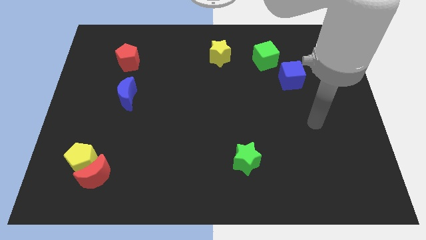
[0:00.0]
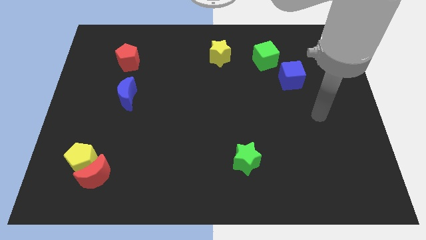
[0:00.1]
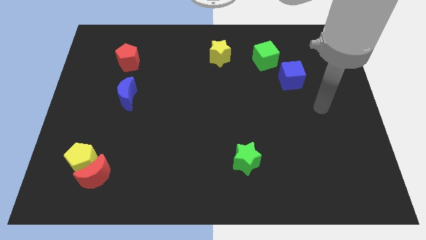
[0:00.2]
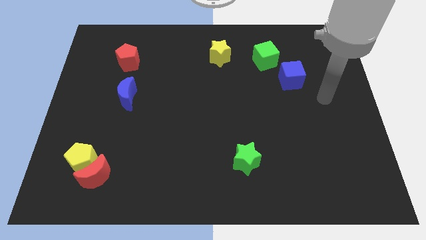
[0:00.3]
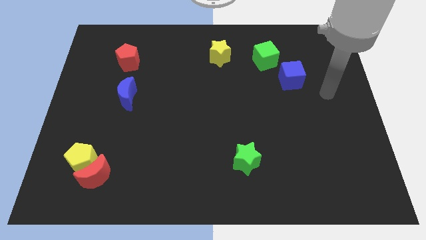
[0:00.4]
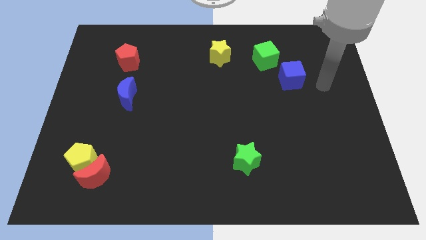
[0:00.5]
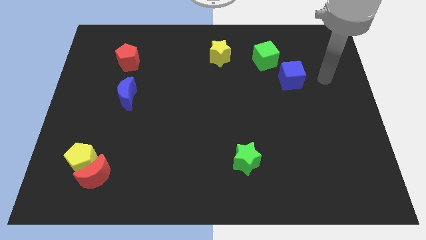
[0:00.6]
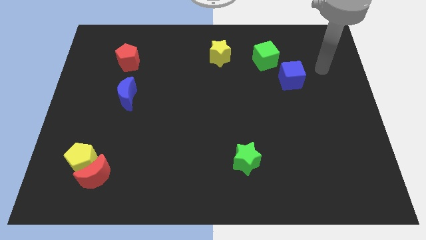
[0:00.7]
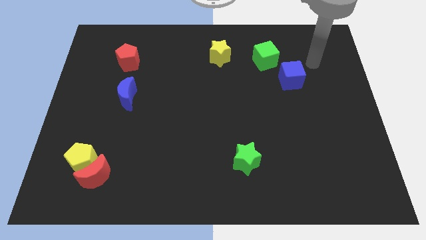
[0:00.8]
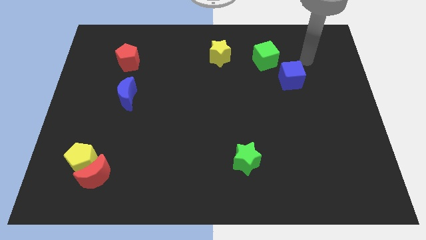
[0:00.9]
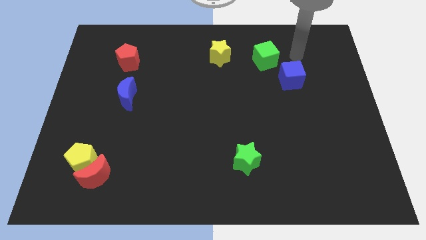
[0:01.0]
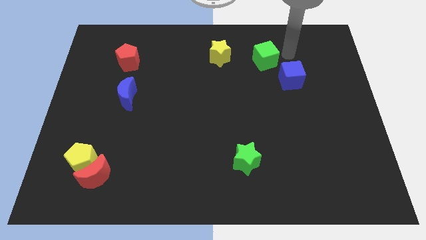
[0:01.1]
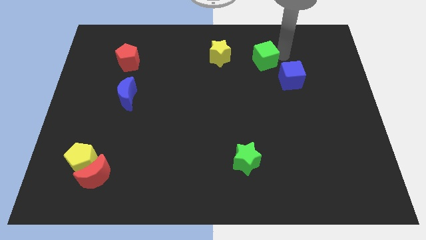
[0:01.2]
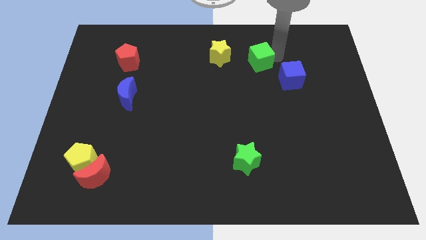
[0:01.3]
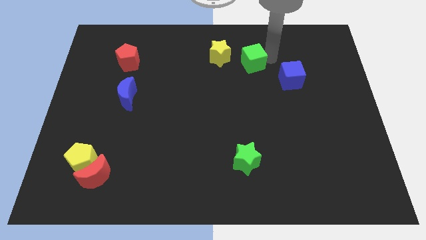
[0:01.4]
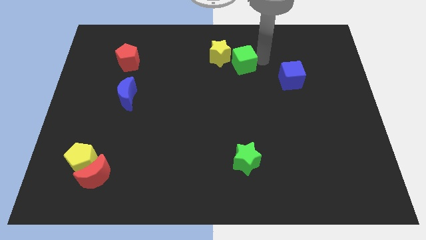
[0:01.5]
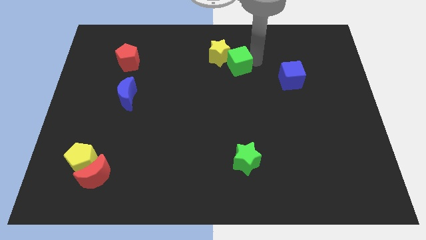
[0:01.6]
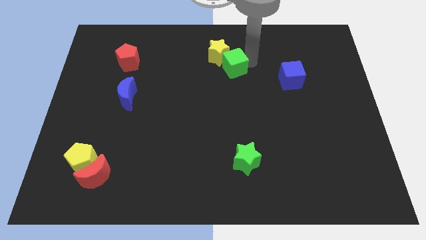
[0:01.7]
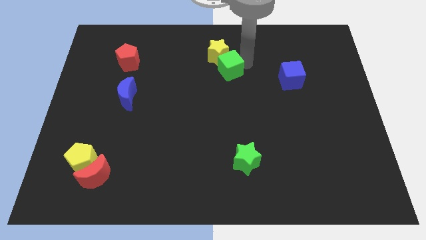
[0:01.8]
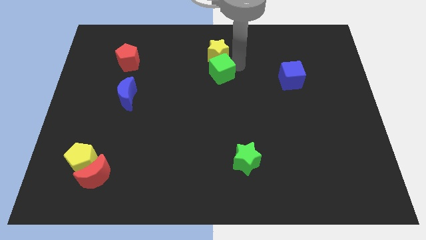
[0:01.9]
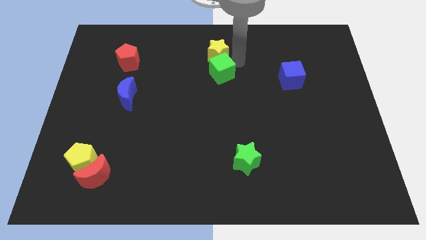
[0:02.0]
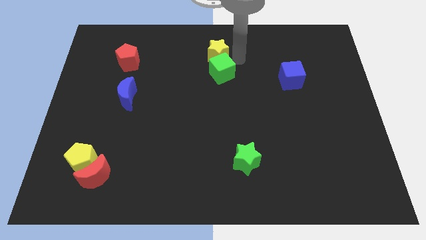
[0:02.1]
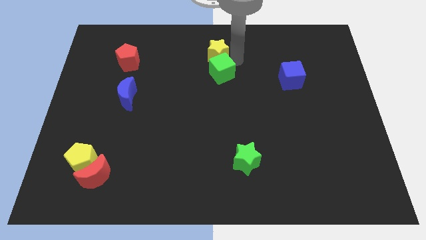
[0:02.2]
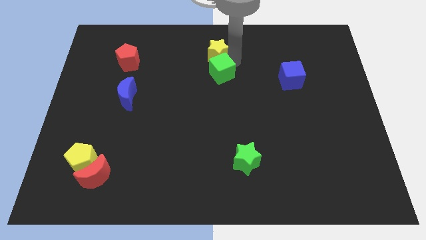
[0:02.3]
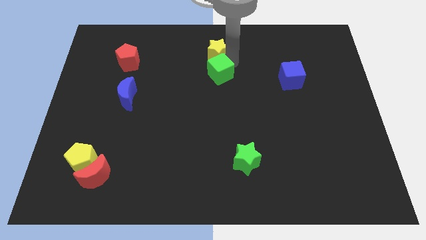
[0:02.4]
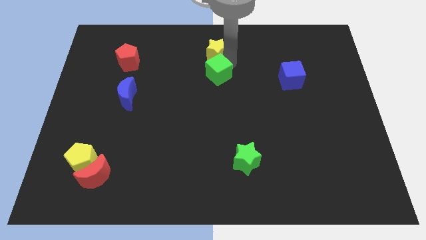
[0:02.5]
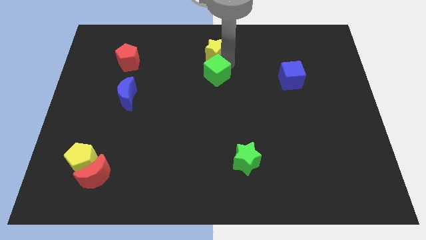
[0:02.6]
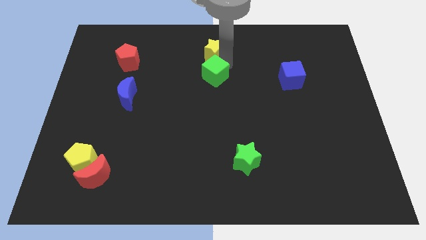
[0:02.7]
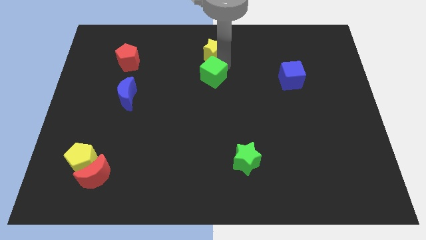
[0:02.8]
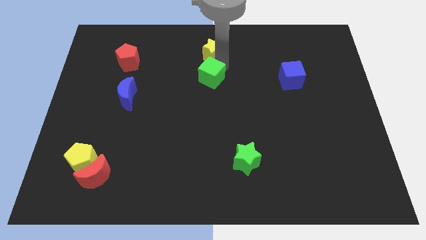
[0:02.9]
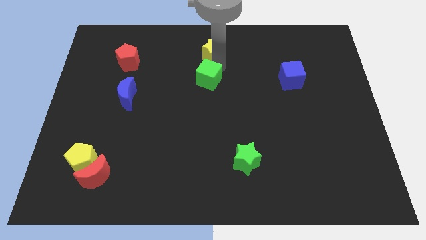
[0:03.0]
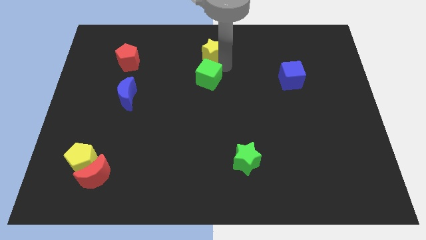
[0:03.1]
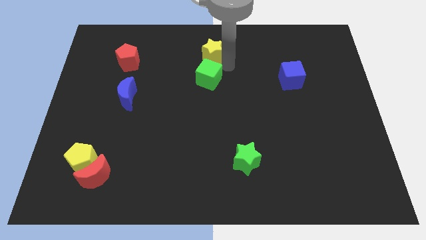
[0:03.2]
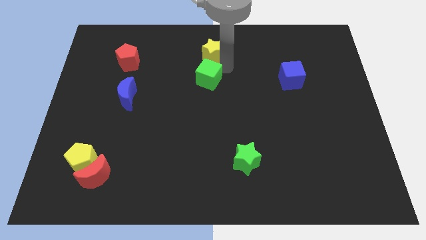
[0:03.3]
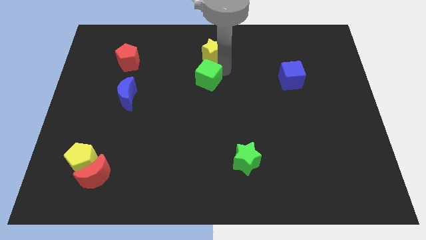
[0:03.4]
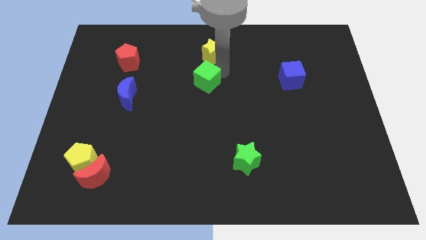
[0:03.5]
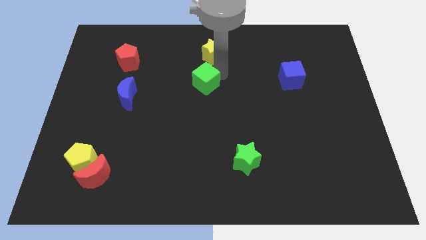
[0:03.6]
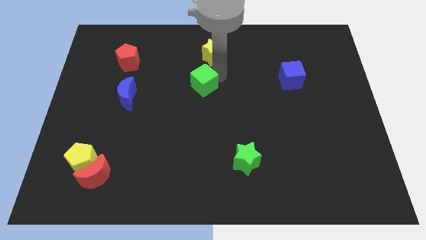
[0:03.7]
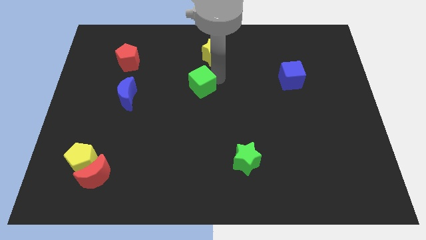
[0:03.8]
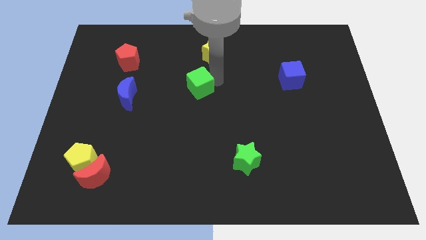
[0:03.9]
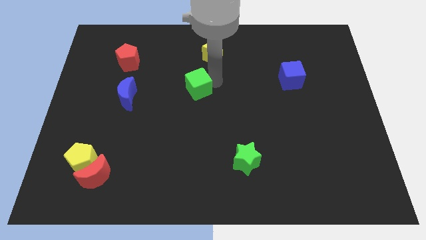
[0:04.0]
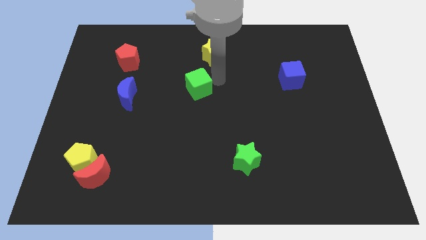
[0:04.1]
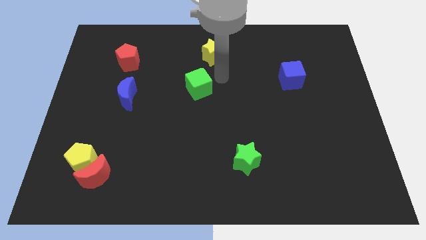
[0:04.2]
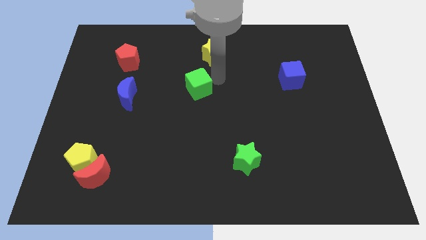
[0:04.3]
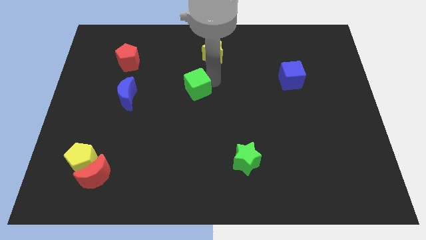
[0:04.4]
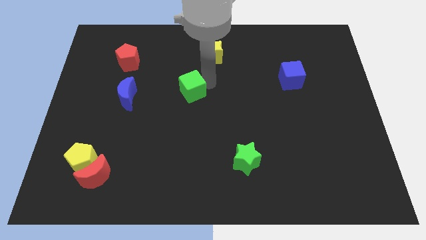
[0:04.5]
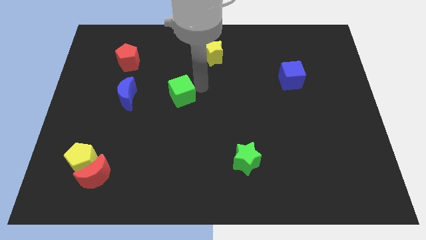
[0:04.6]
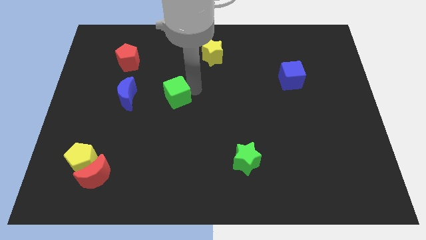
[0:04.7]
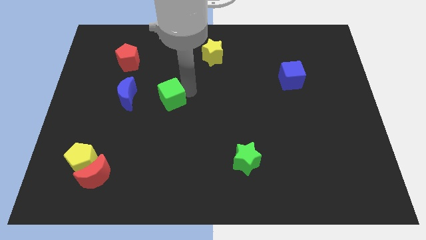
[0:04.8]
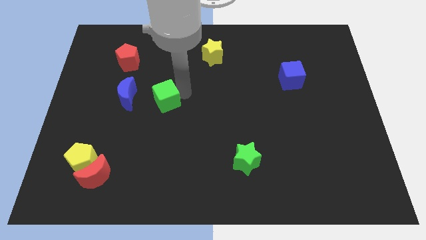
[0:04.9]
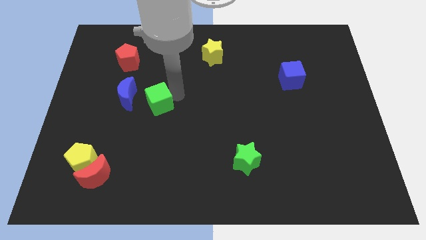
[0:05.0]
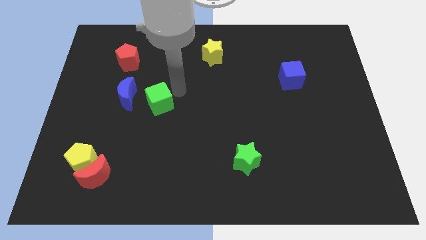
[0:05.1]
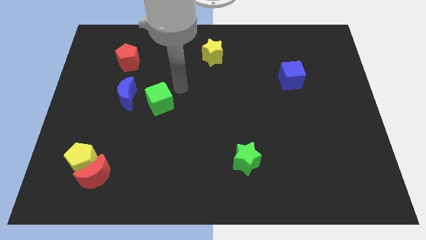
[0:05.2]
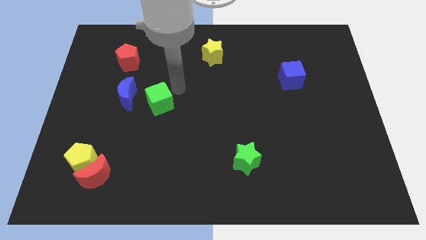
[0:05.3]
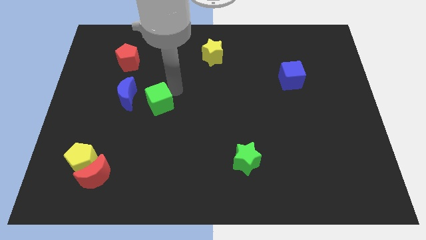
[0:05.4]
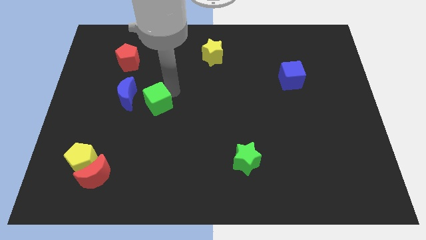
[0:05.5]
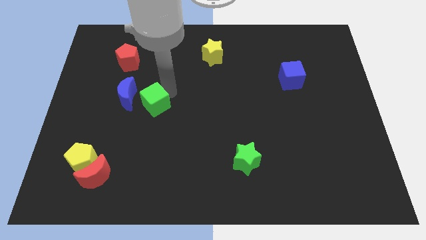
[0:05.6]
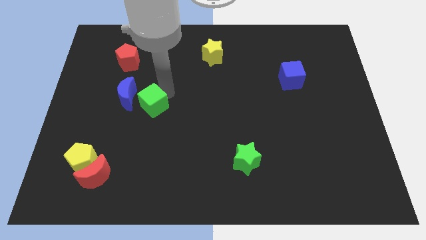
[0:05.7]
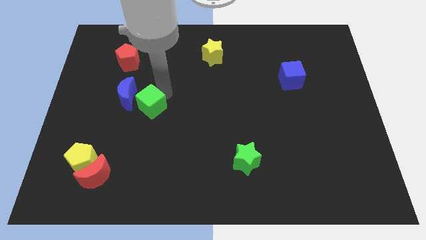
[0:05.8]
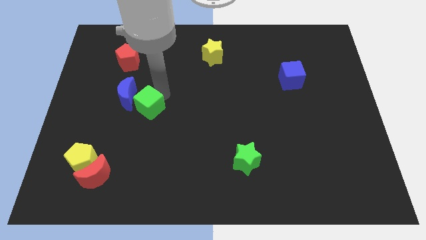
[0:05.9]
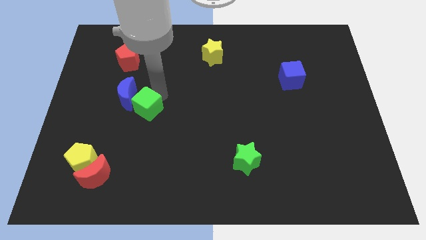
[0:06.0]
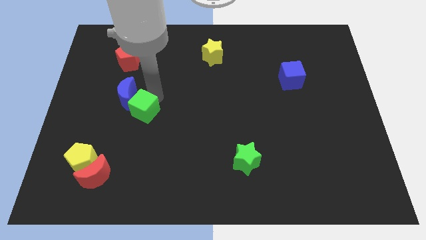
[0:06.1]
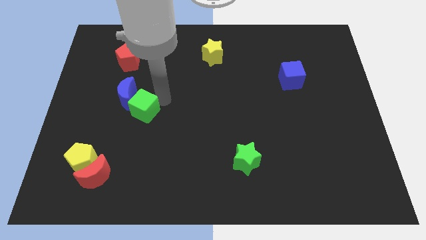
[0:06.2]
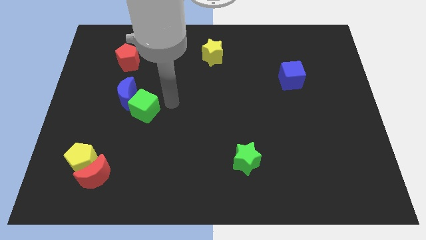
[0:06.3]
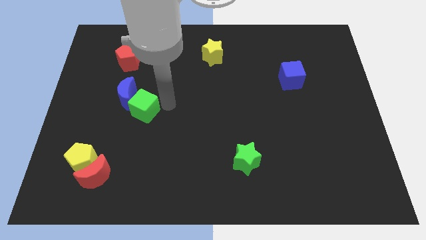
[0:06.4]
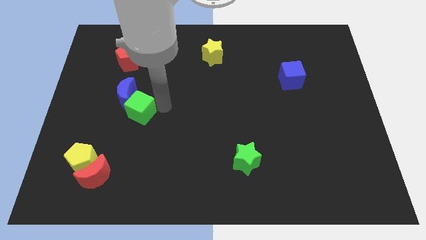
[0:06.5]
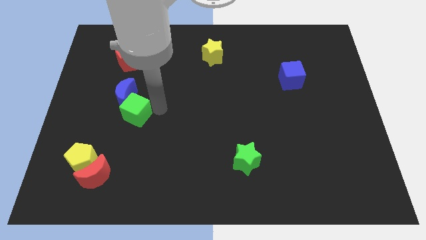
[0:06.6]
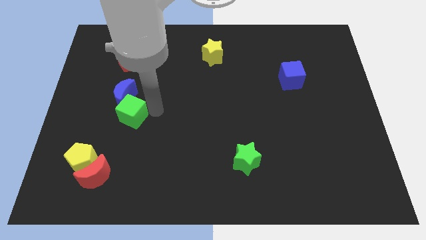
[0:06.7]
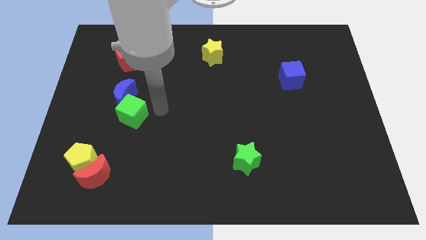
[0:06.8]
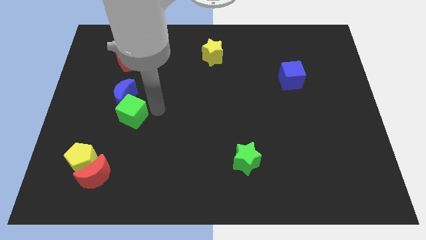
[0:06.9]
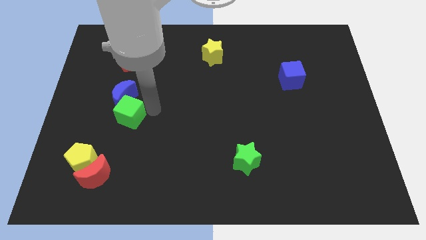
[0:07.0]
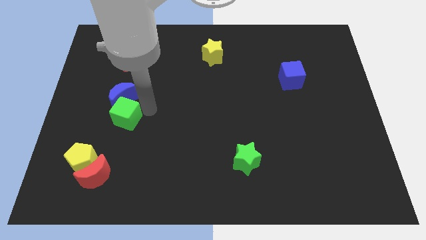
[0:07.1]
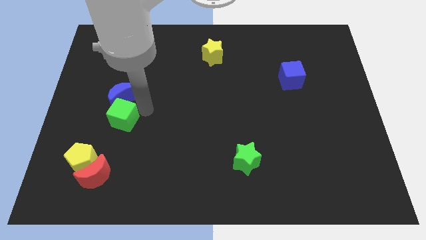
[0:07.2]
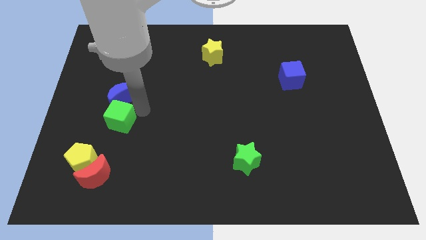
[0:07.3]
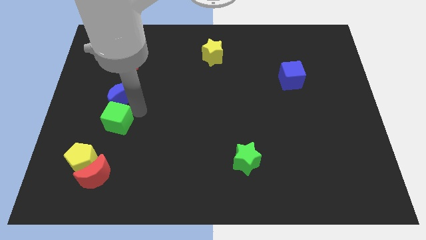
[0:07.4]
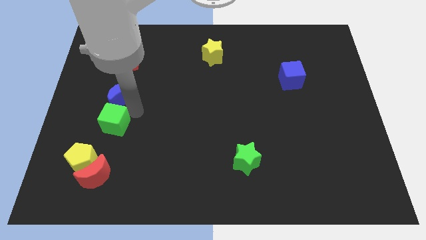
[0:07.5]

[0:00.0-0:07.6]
put the green cube above the yellow pentagon
